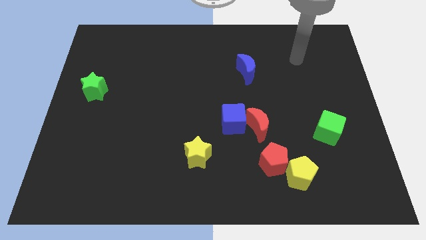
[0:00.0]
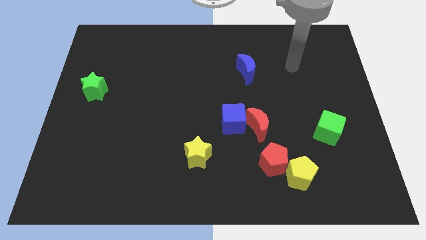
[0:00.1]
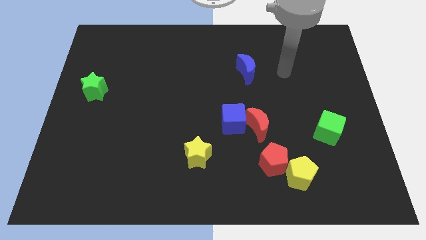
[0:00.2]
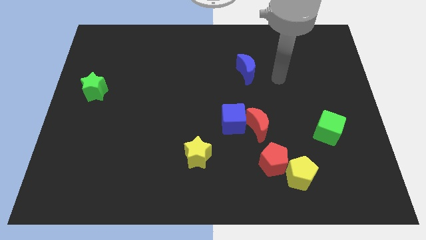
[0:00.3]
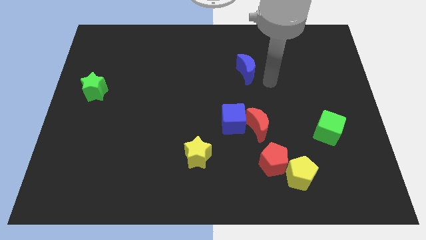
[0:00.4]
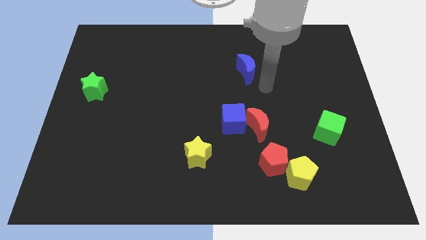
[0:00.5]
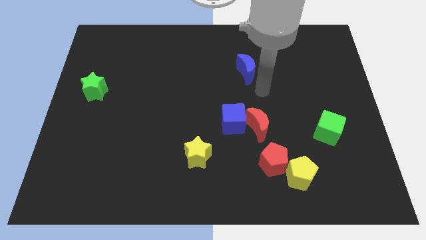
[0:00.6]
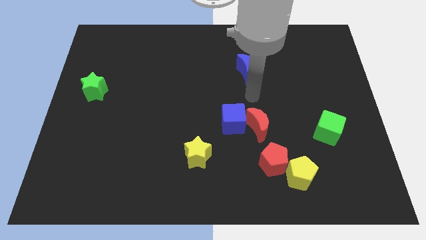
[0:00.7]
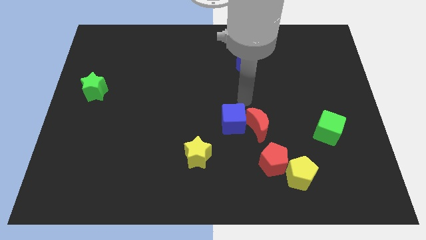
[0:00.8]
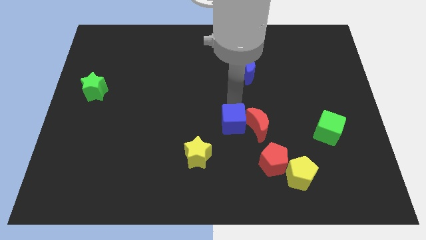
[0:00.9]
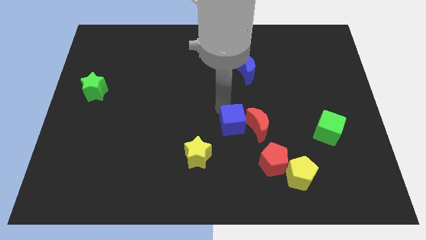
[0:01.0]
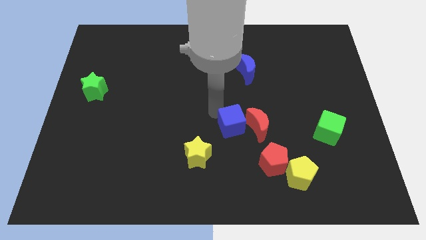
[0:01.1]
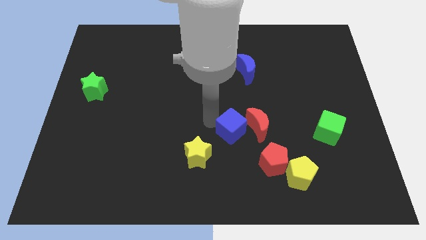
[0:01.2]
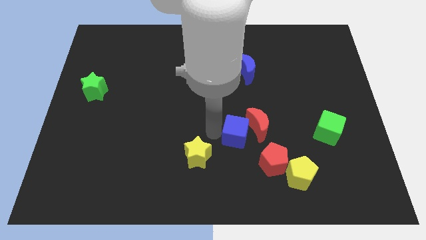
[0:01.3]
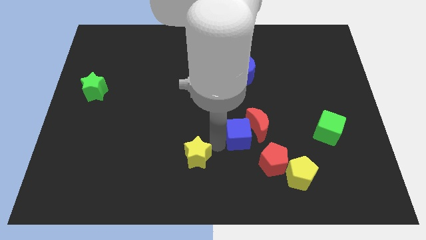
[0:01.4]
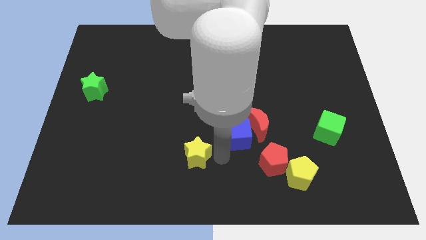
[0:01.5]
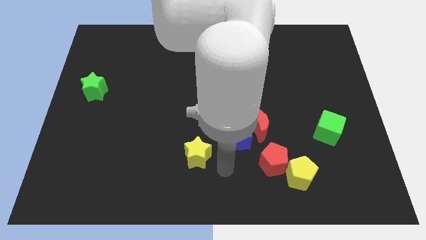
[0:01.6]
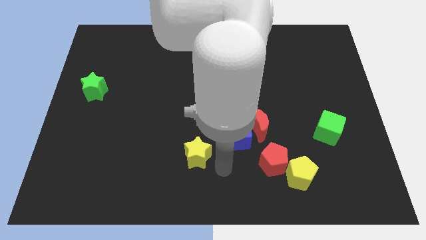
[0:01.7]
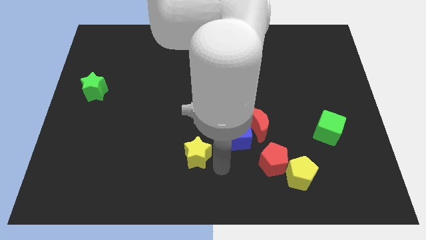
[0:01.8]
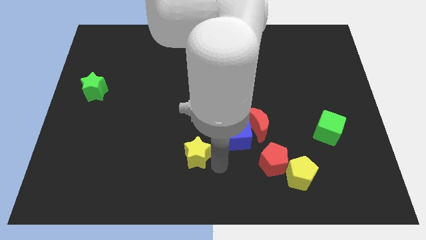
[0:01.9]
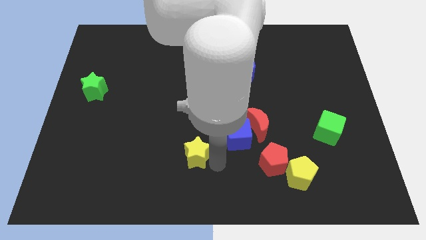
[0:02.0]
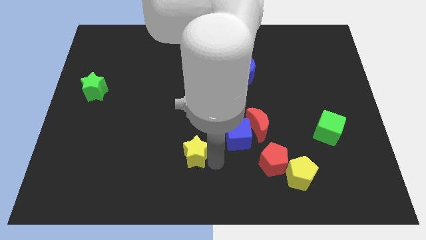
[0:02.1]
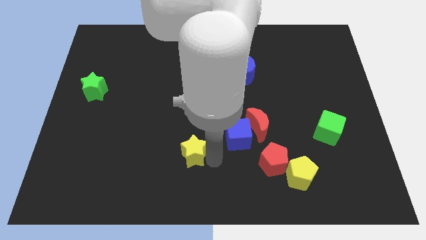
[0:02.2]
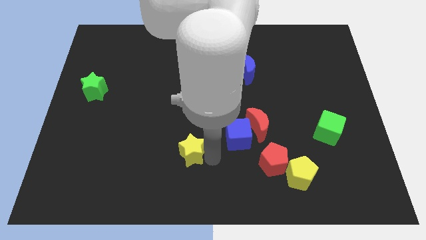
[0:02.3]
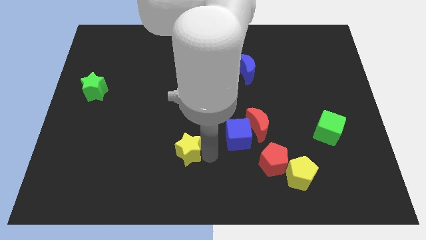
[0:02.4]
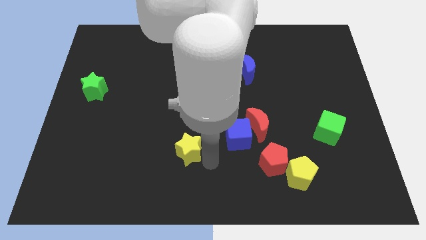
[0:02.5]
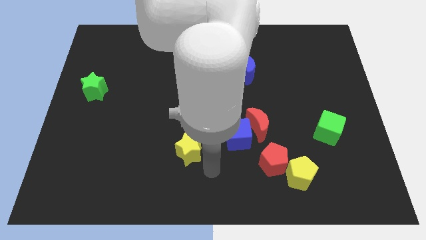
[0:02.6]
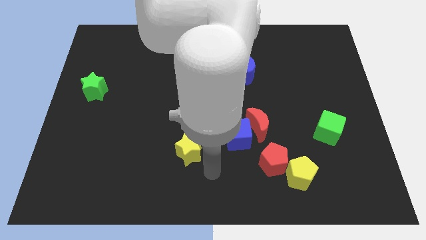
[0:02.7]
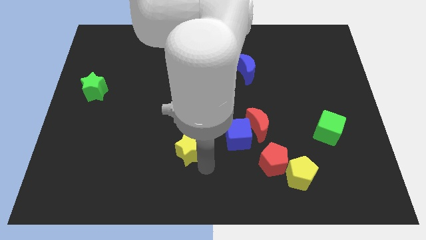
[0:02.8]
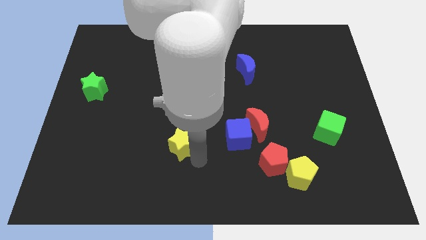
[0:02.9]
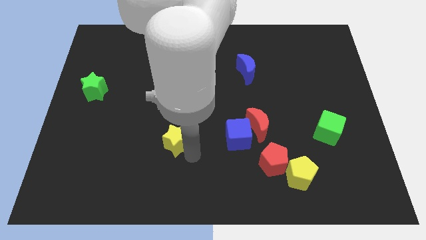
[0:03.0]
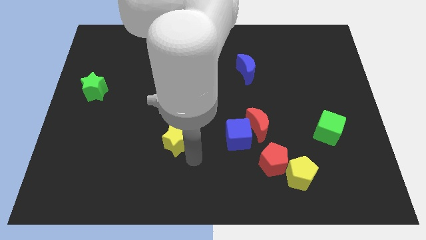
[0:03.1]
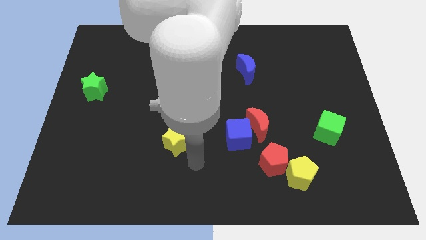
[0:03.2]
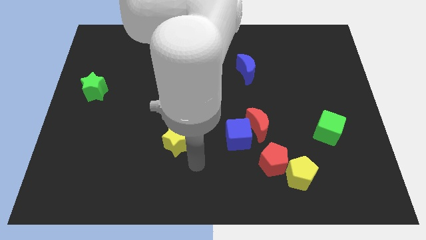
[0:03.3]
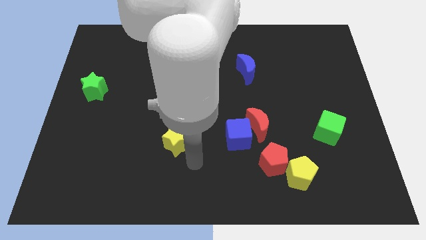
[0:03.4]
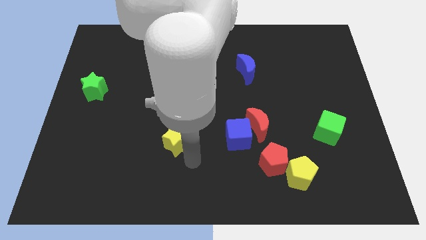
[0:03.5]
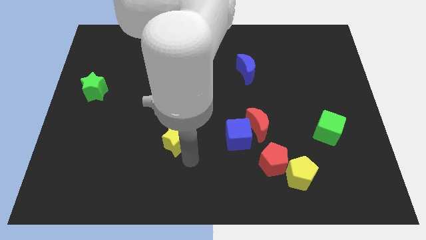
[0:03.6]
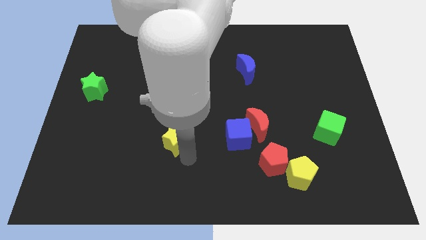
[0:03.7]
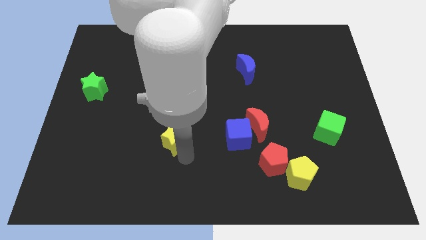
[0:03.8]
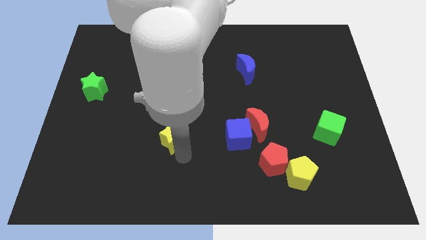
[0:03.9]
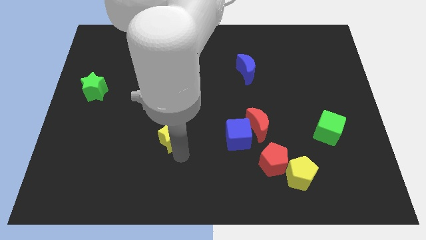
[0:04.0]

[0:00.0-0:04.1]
slightly push the yellow star up and then to the left

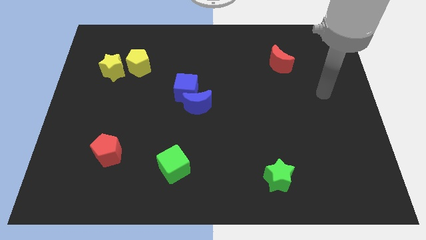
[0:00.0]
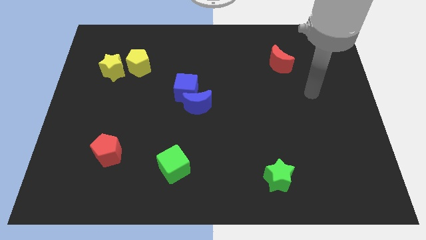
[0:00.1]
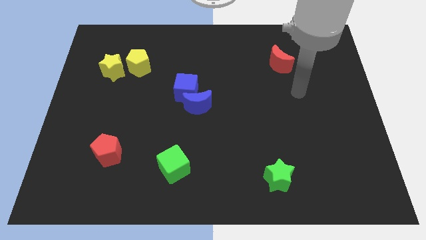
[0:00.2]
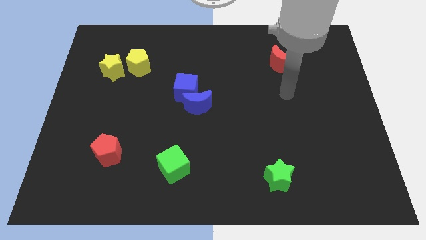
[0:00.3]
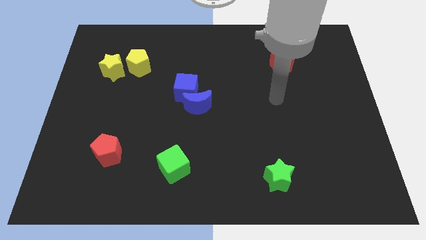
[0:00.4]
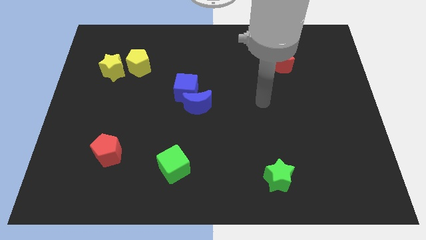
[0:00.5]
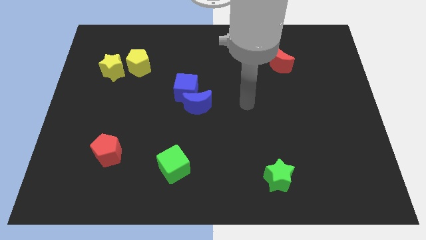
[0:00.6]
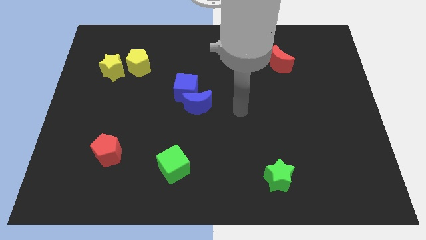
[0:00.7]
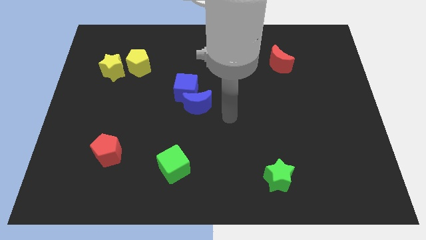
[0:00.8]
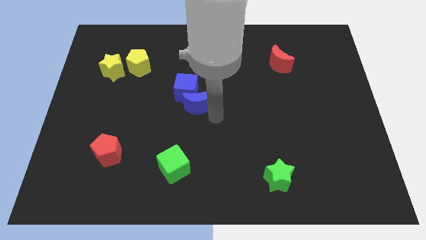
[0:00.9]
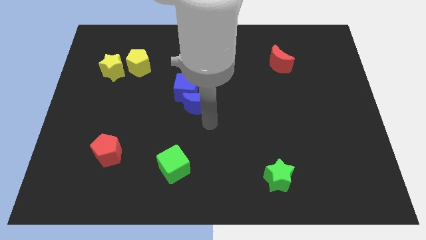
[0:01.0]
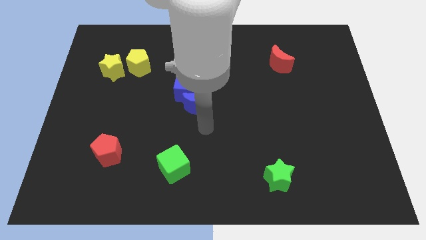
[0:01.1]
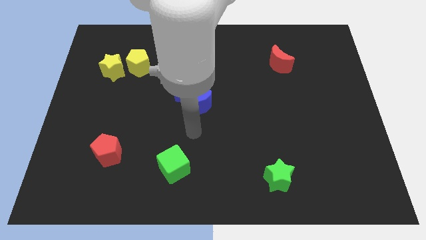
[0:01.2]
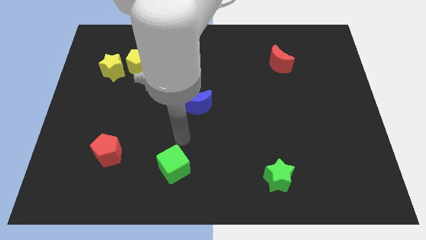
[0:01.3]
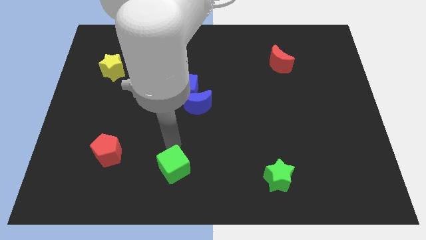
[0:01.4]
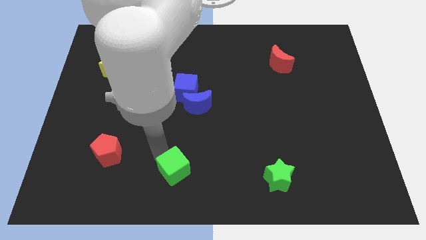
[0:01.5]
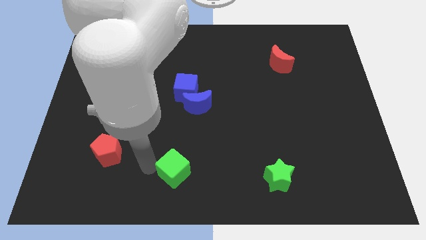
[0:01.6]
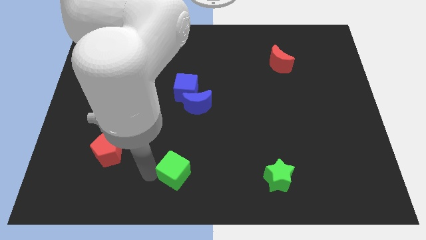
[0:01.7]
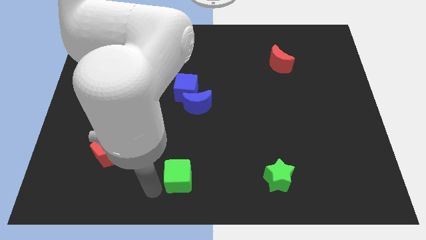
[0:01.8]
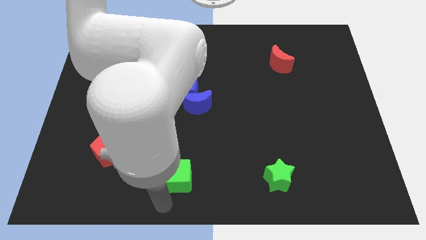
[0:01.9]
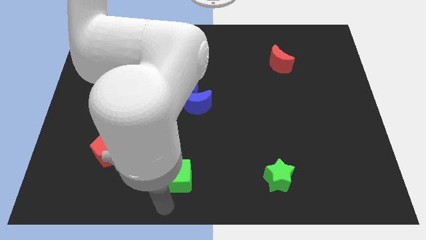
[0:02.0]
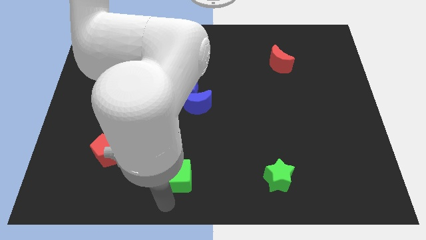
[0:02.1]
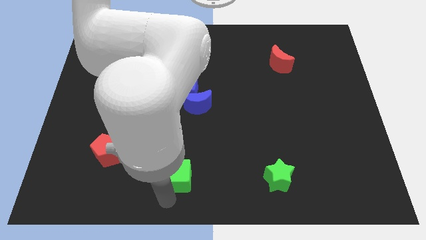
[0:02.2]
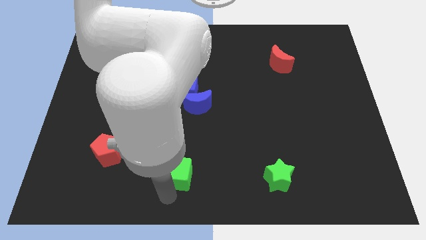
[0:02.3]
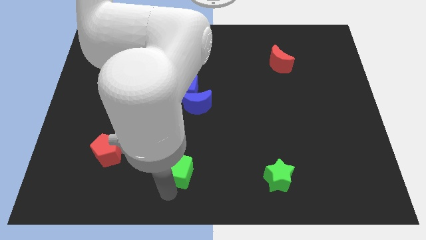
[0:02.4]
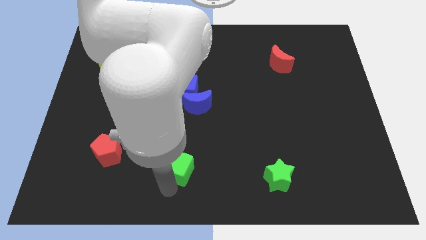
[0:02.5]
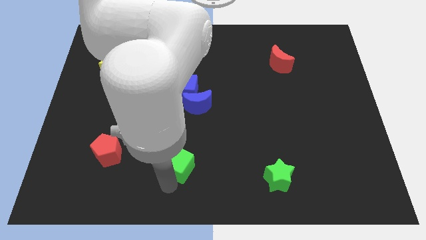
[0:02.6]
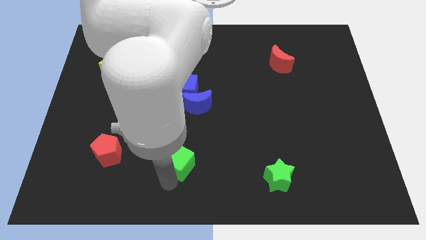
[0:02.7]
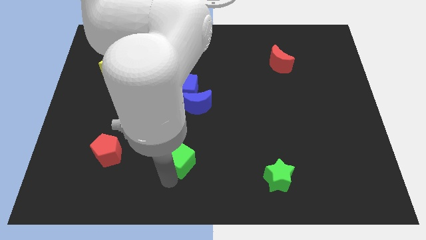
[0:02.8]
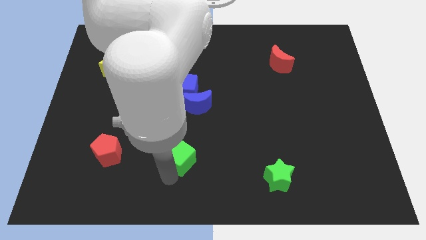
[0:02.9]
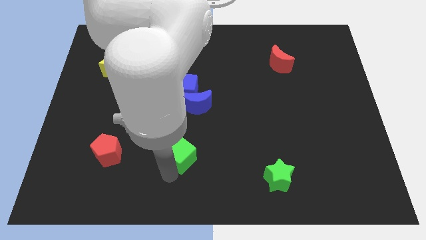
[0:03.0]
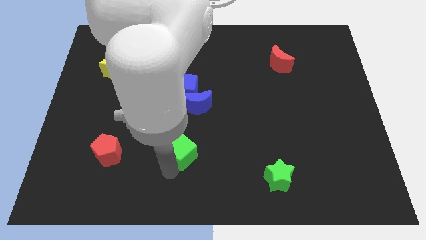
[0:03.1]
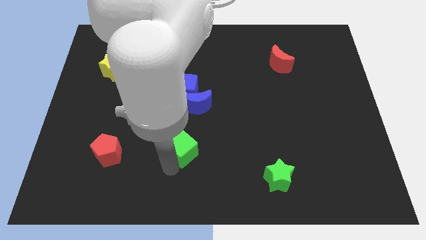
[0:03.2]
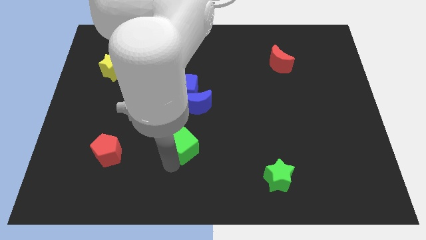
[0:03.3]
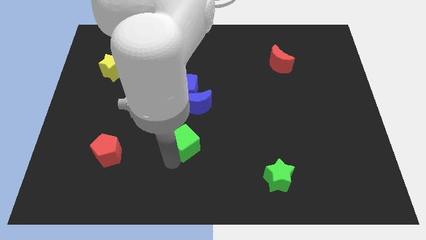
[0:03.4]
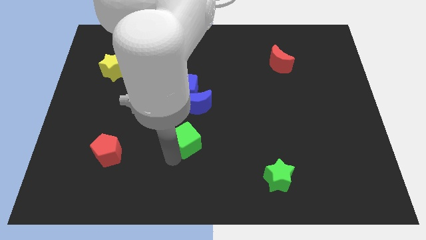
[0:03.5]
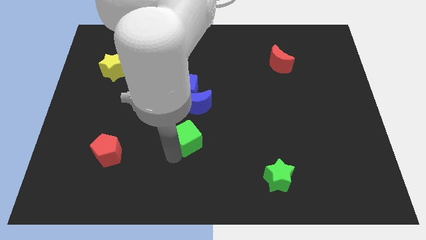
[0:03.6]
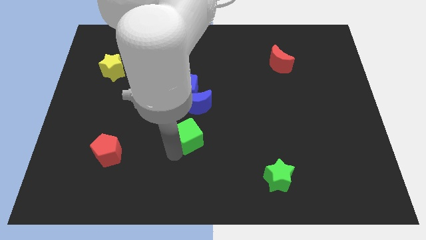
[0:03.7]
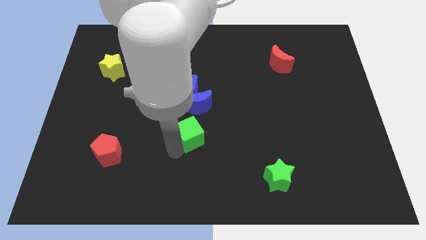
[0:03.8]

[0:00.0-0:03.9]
move the green cube upwards and right somewhat
